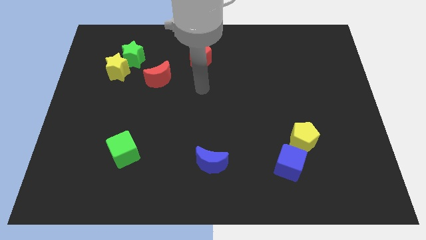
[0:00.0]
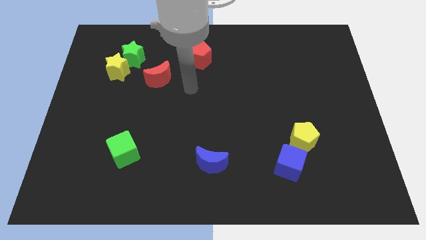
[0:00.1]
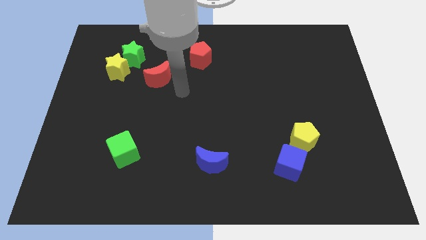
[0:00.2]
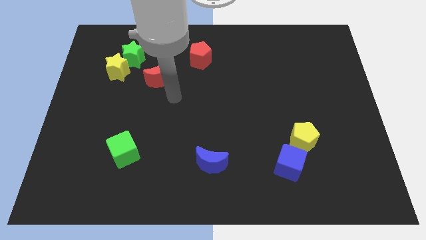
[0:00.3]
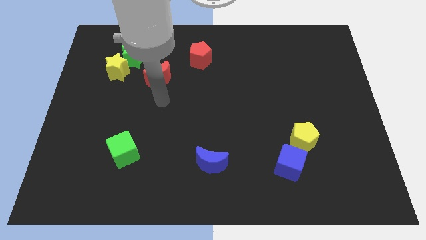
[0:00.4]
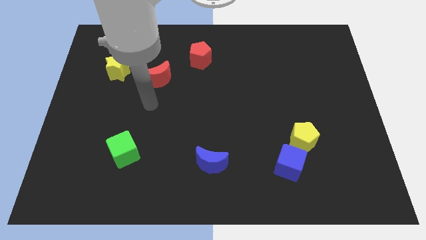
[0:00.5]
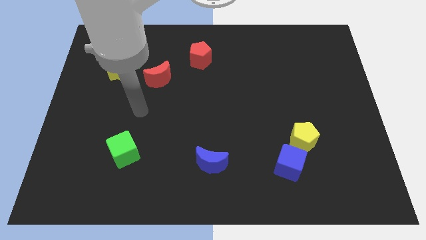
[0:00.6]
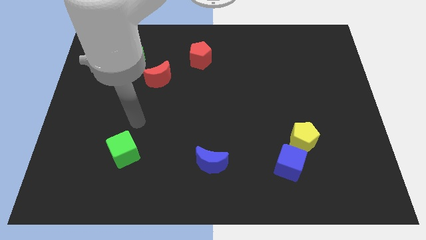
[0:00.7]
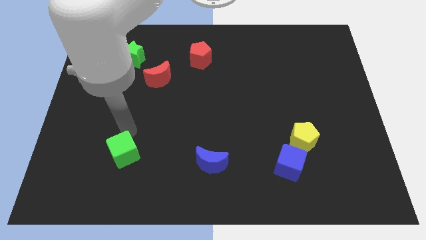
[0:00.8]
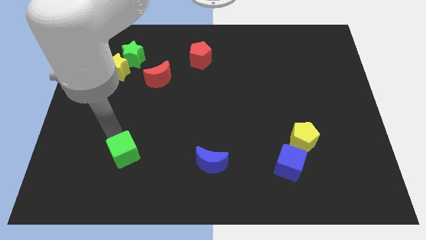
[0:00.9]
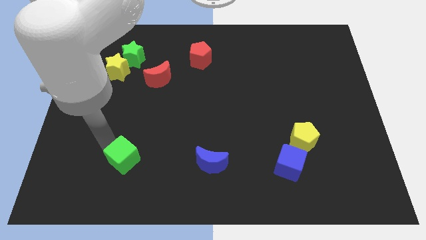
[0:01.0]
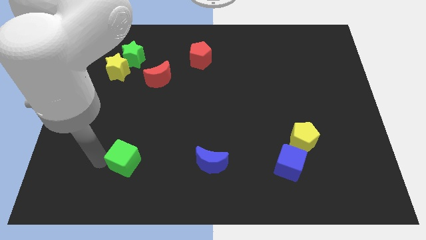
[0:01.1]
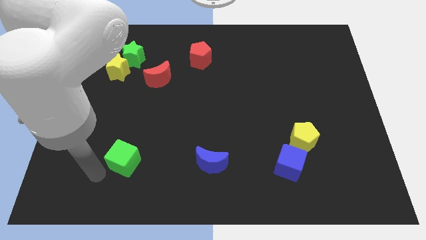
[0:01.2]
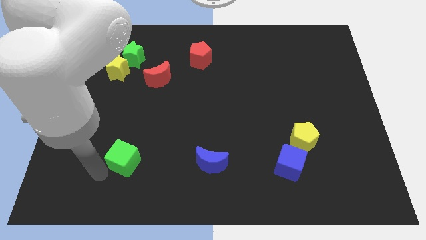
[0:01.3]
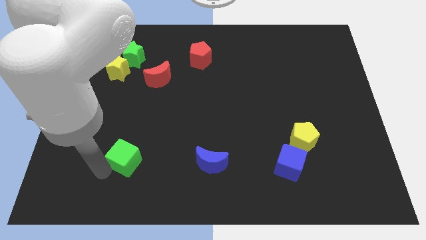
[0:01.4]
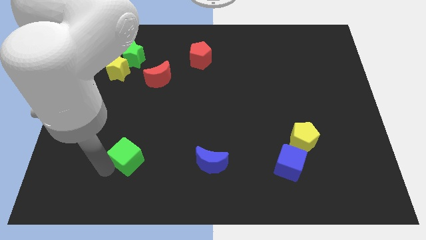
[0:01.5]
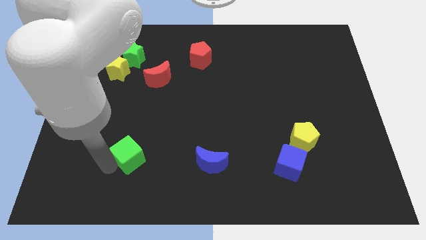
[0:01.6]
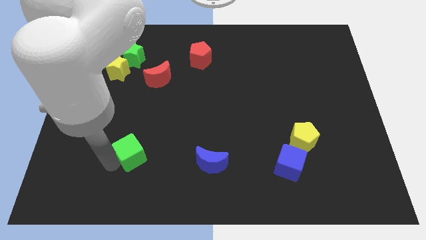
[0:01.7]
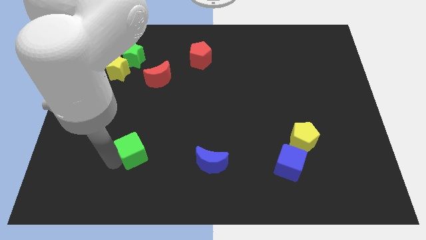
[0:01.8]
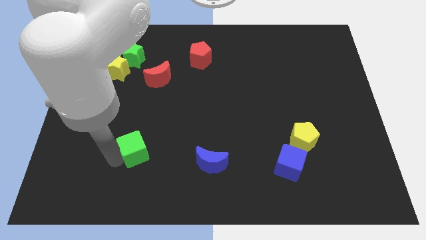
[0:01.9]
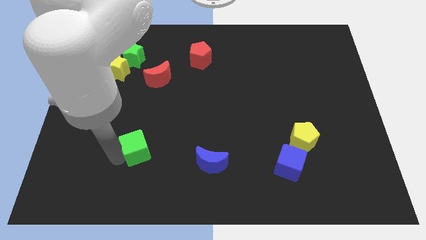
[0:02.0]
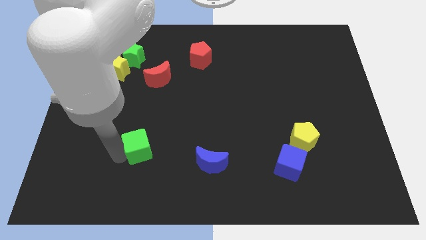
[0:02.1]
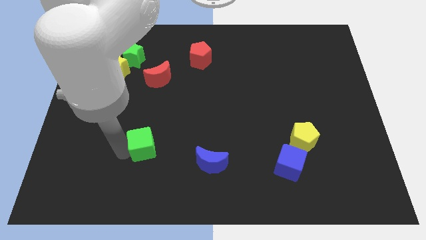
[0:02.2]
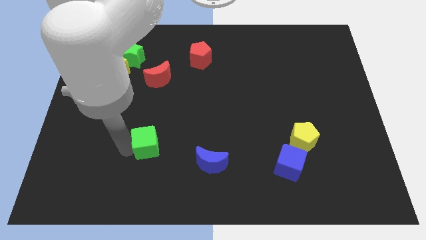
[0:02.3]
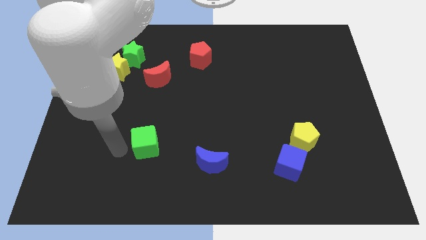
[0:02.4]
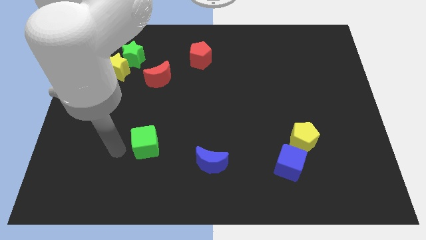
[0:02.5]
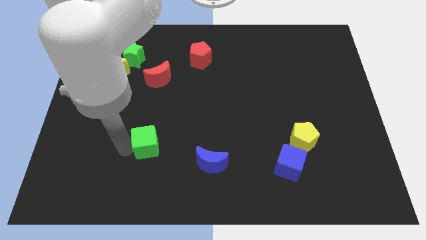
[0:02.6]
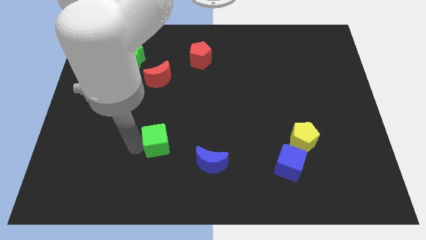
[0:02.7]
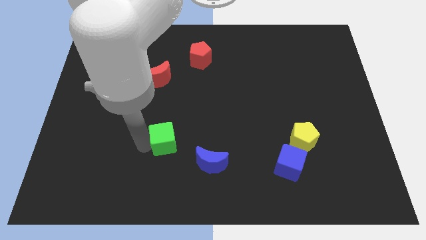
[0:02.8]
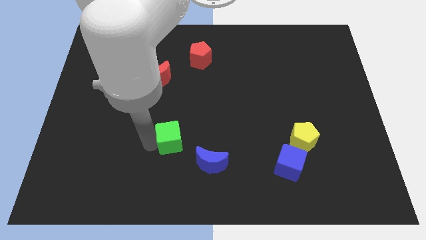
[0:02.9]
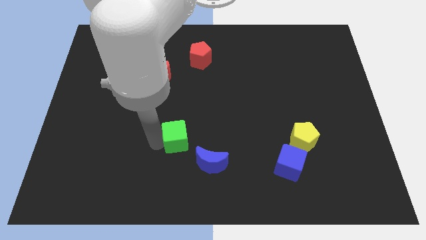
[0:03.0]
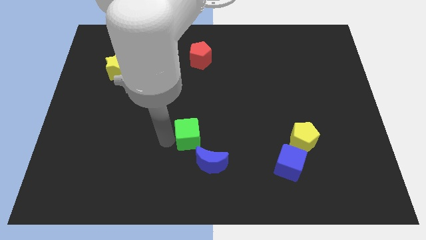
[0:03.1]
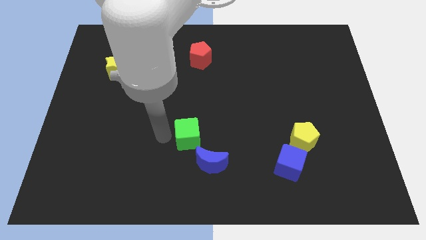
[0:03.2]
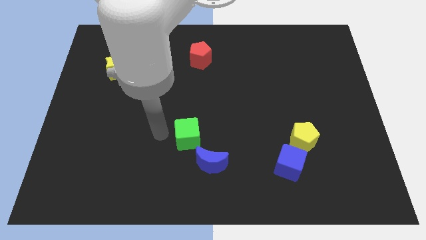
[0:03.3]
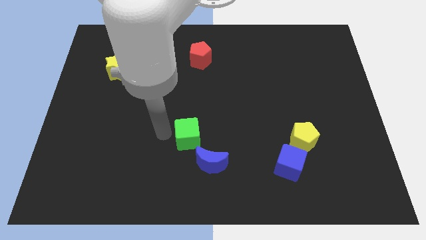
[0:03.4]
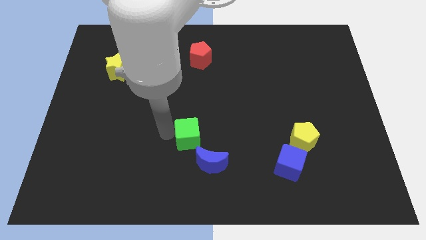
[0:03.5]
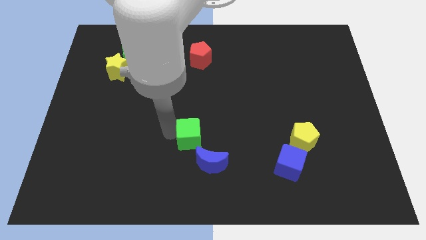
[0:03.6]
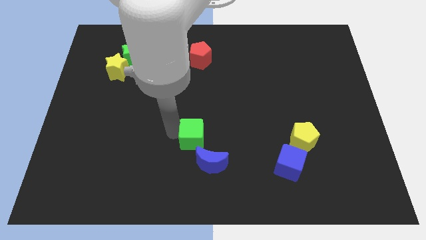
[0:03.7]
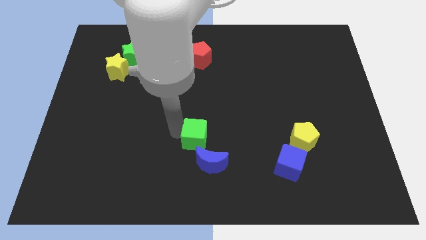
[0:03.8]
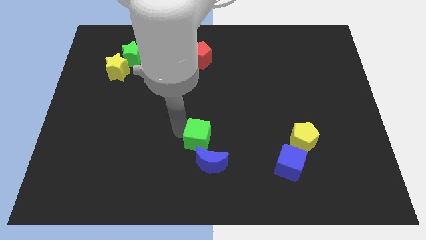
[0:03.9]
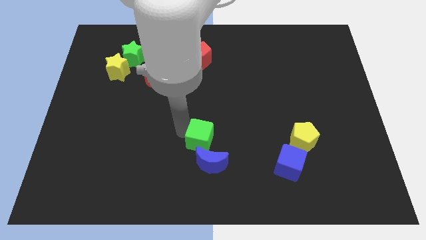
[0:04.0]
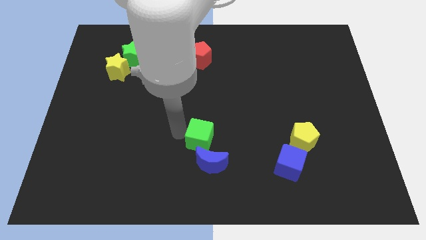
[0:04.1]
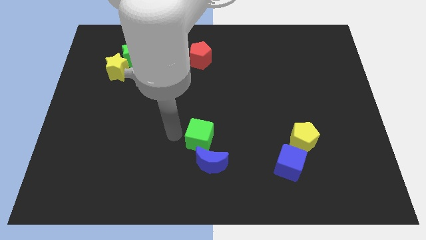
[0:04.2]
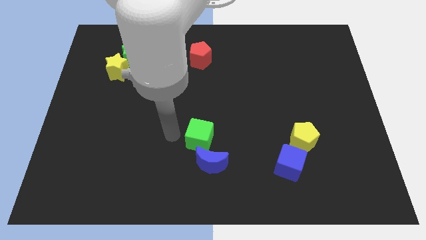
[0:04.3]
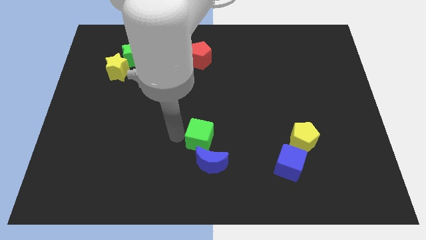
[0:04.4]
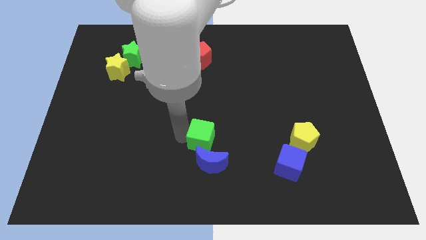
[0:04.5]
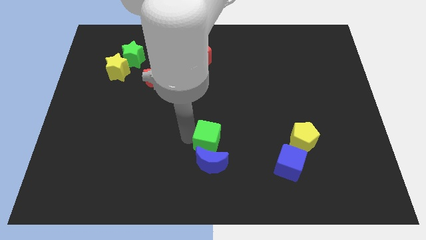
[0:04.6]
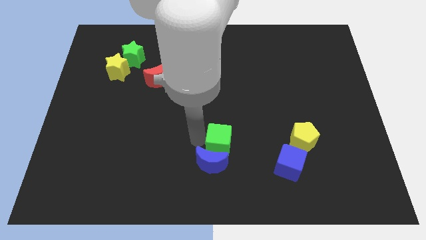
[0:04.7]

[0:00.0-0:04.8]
move the green cube right

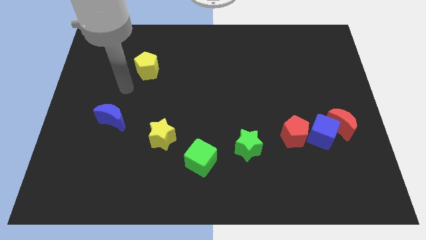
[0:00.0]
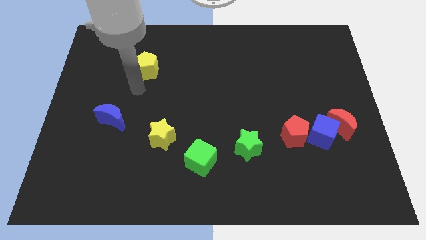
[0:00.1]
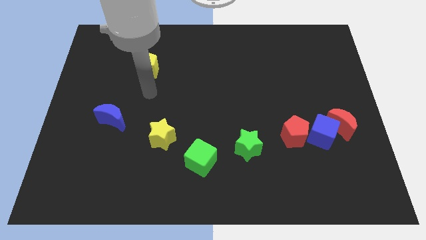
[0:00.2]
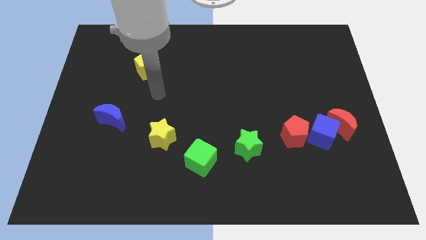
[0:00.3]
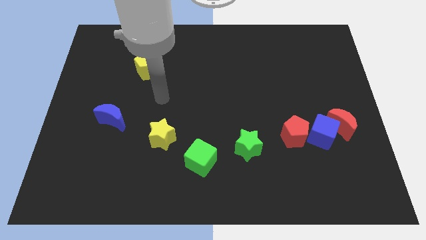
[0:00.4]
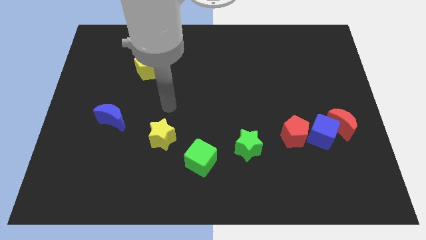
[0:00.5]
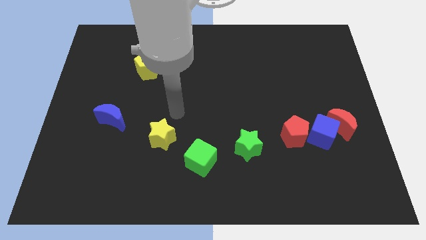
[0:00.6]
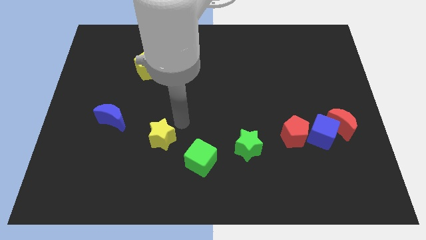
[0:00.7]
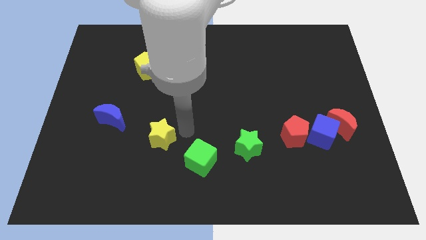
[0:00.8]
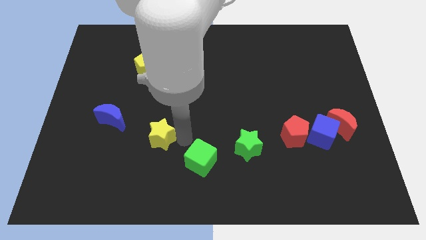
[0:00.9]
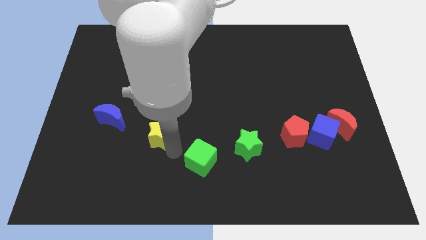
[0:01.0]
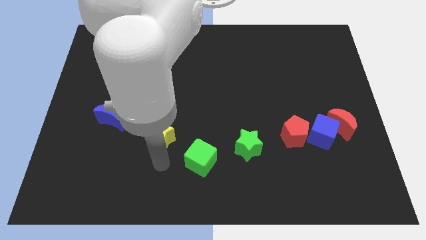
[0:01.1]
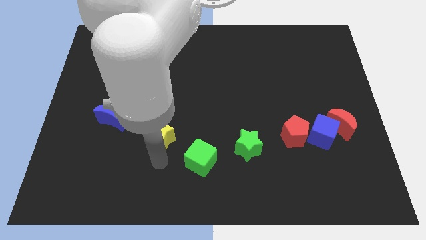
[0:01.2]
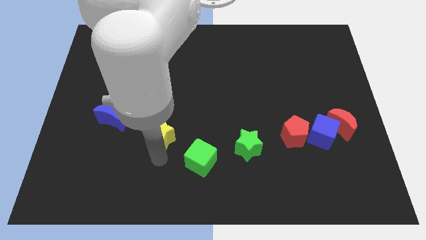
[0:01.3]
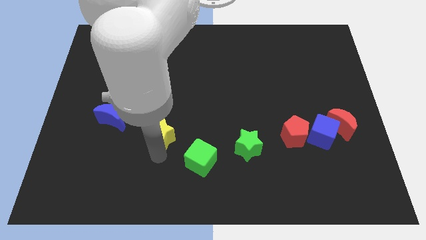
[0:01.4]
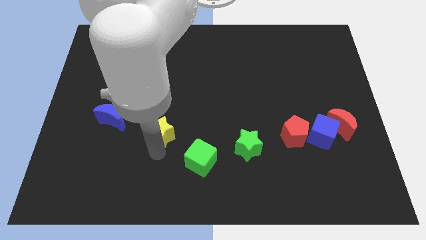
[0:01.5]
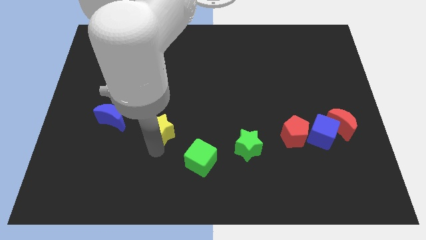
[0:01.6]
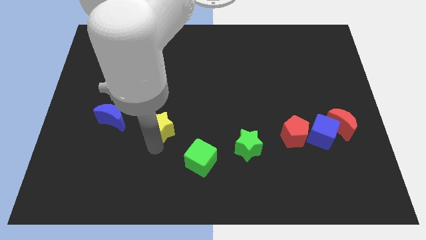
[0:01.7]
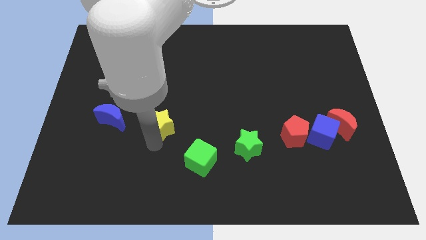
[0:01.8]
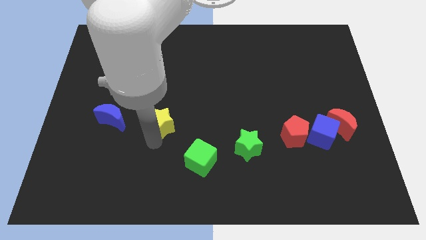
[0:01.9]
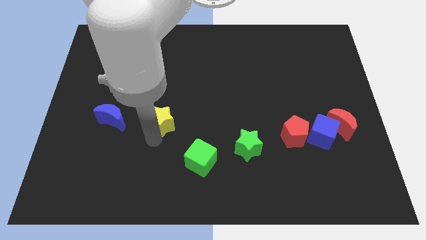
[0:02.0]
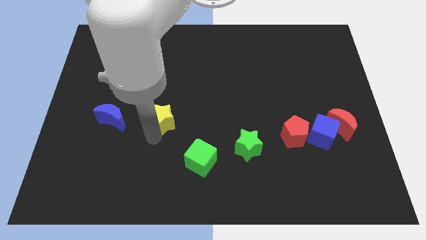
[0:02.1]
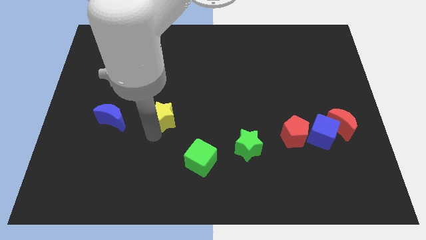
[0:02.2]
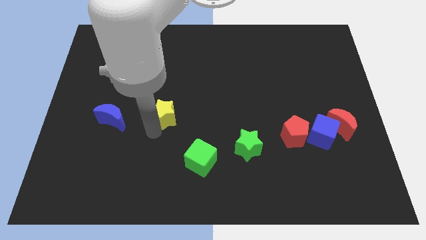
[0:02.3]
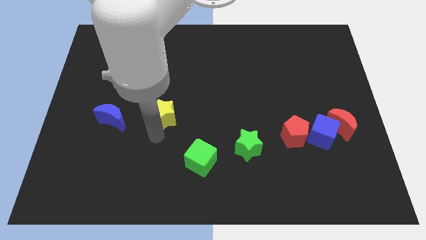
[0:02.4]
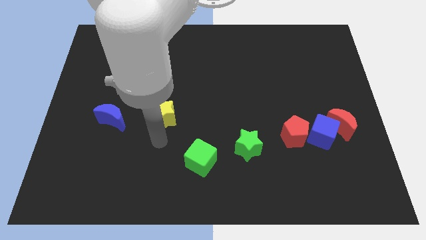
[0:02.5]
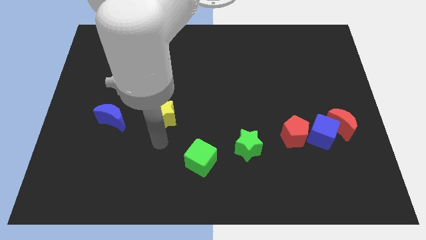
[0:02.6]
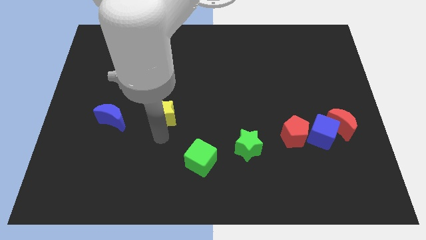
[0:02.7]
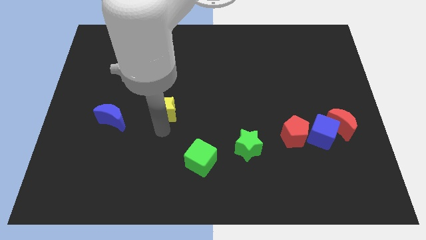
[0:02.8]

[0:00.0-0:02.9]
move the yellow star upwards slightly

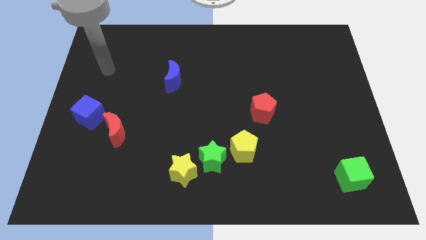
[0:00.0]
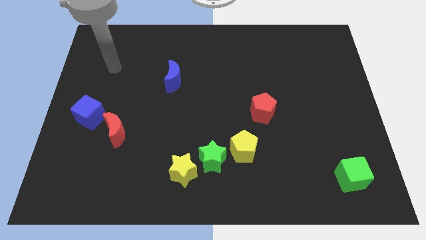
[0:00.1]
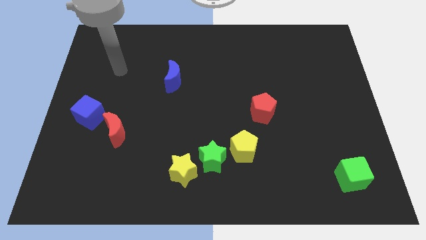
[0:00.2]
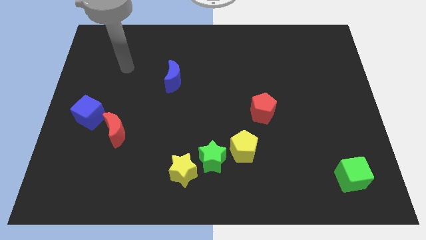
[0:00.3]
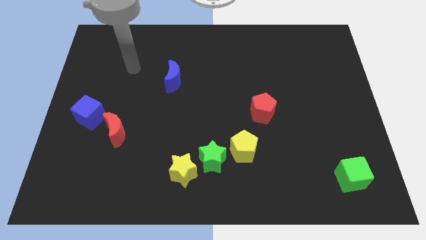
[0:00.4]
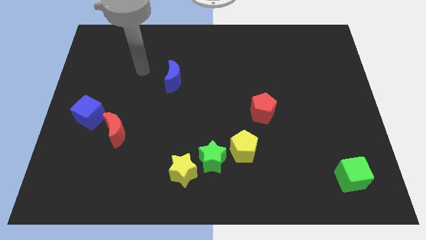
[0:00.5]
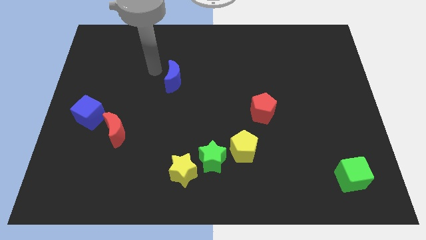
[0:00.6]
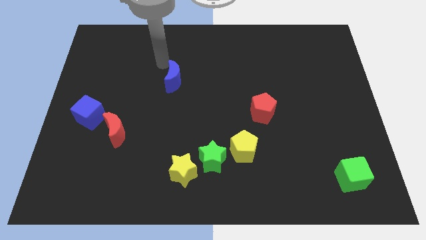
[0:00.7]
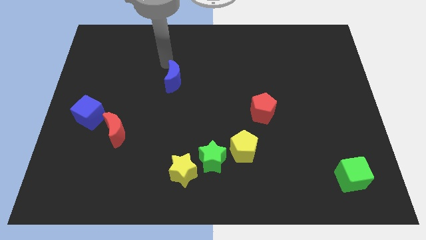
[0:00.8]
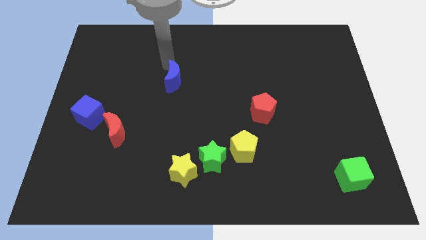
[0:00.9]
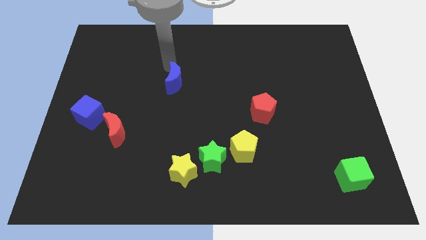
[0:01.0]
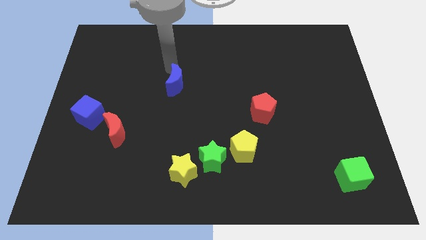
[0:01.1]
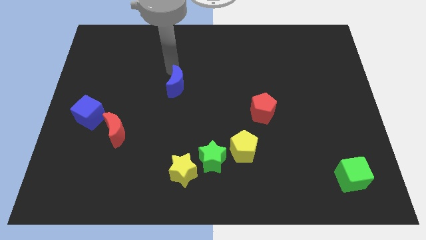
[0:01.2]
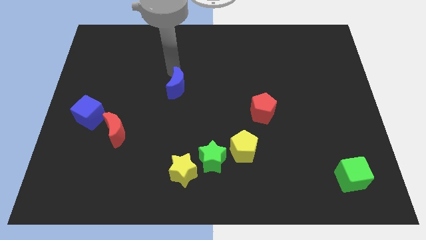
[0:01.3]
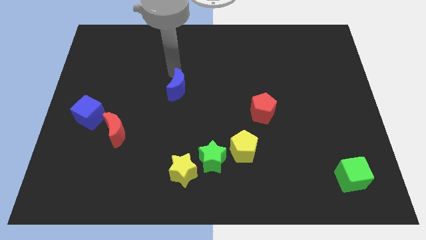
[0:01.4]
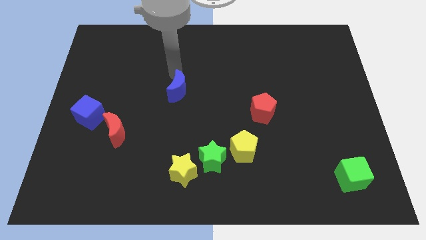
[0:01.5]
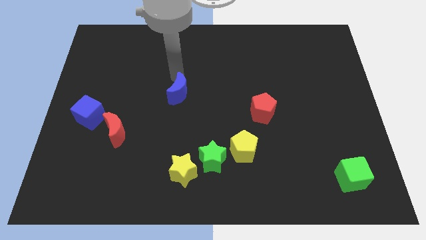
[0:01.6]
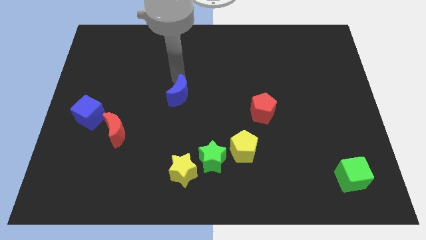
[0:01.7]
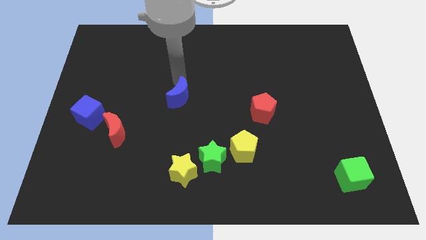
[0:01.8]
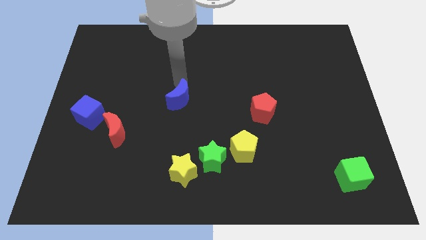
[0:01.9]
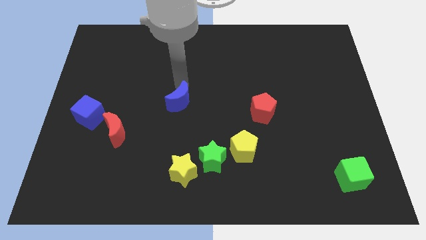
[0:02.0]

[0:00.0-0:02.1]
move the blue moon down somewhat
